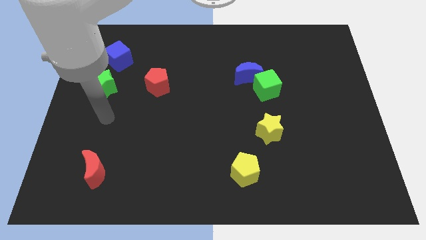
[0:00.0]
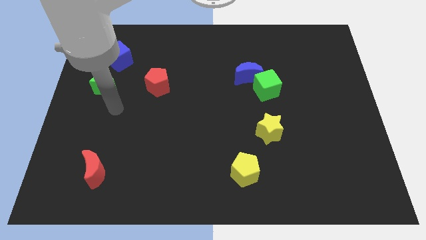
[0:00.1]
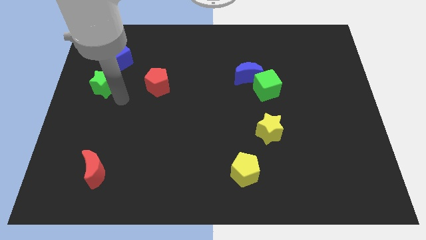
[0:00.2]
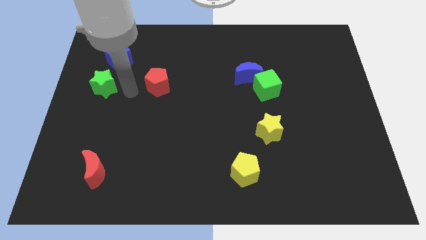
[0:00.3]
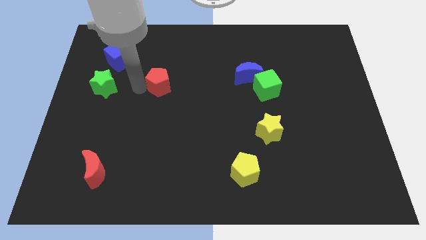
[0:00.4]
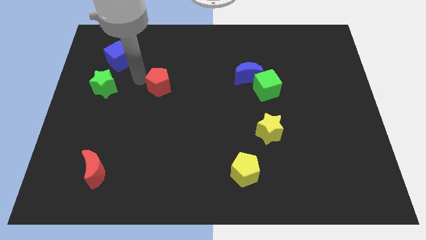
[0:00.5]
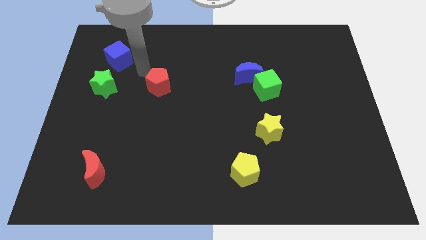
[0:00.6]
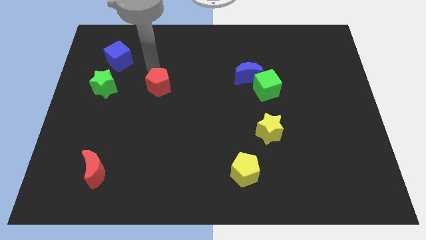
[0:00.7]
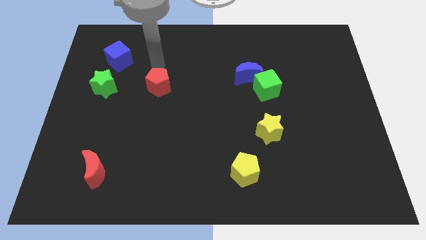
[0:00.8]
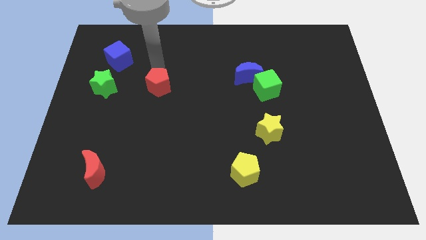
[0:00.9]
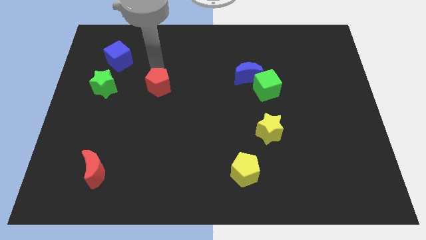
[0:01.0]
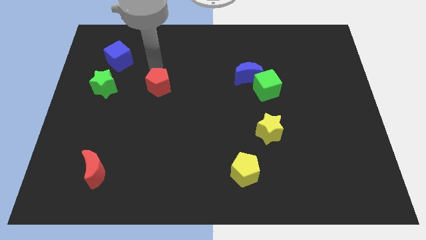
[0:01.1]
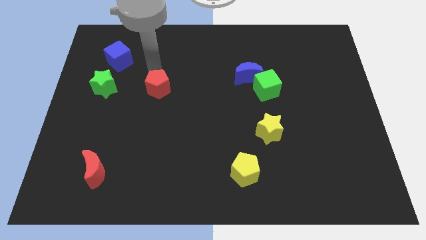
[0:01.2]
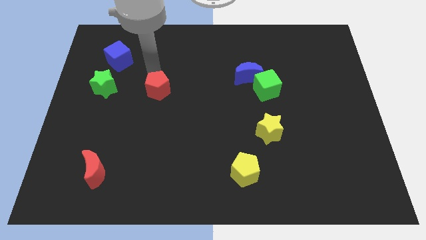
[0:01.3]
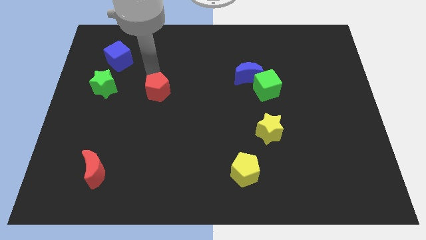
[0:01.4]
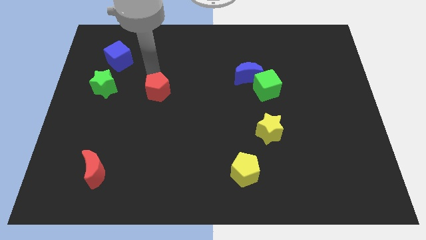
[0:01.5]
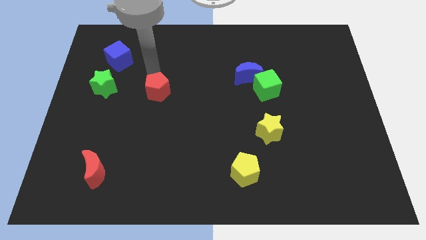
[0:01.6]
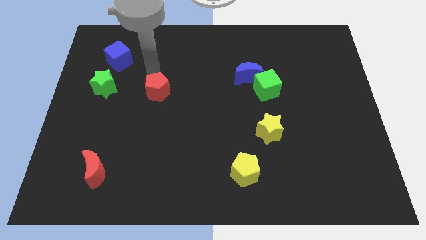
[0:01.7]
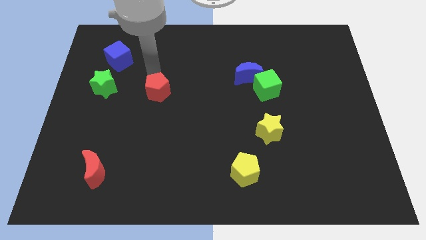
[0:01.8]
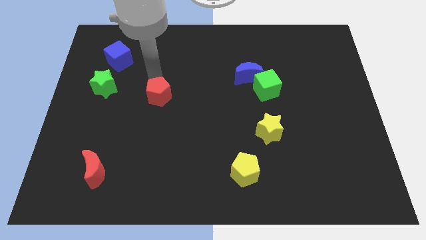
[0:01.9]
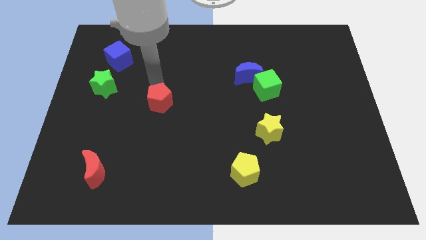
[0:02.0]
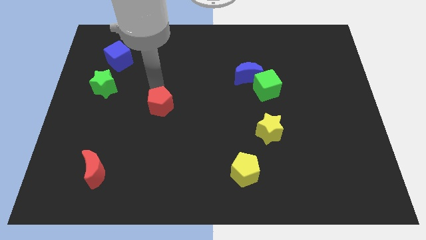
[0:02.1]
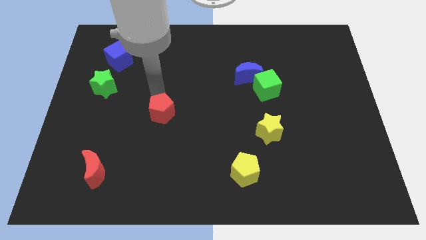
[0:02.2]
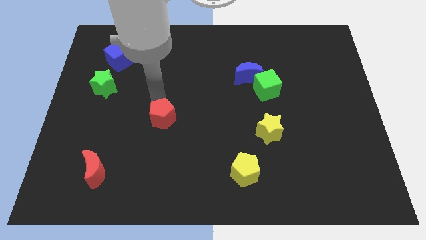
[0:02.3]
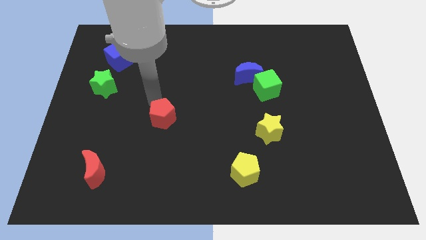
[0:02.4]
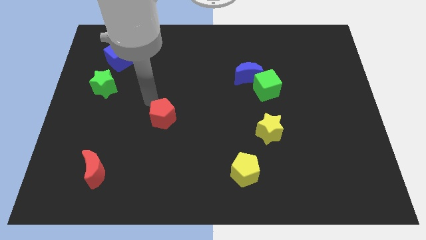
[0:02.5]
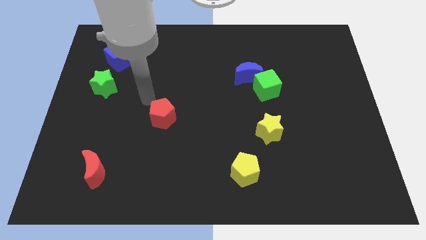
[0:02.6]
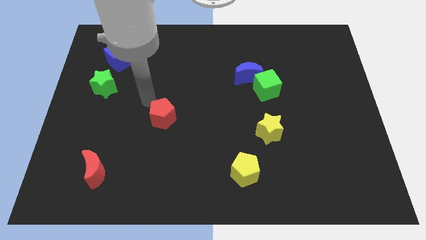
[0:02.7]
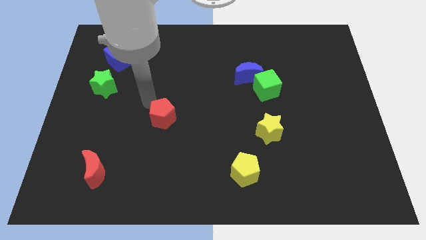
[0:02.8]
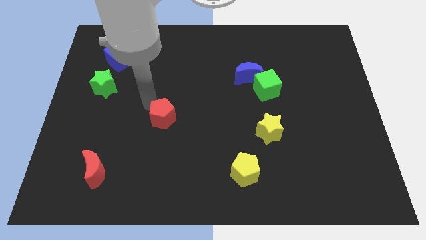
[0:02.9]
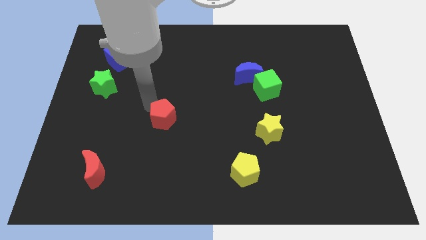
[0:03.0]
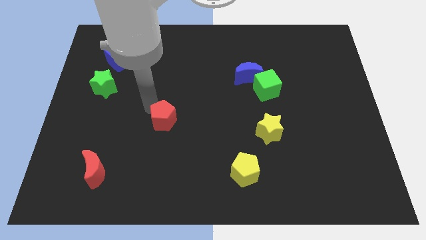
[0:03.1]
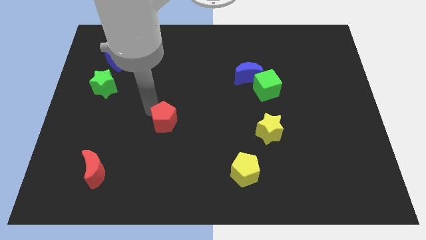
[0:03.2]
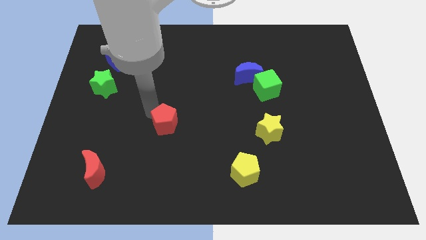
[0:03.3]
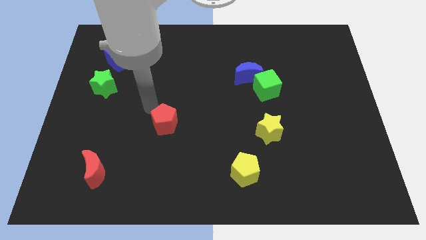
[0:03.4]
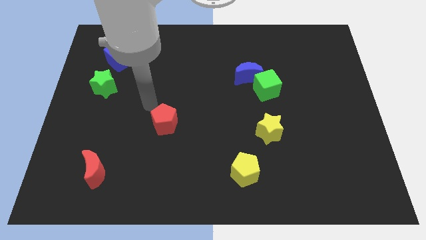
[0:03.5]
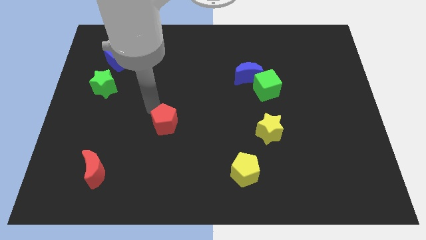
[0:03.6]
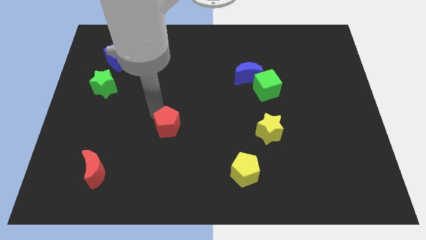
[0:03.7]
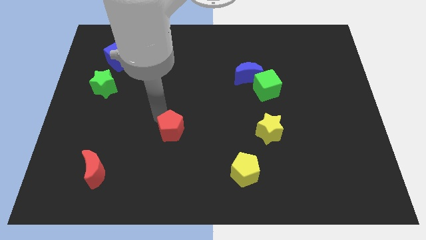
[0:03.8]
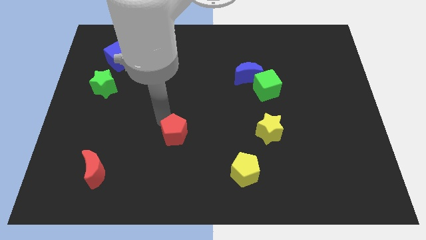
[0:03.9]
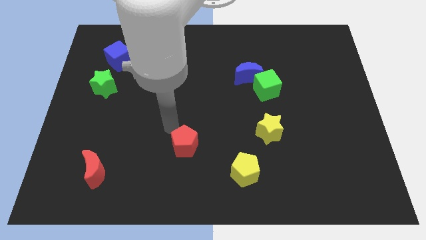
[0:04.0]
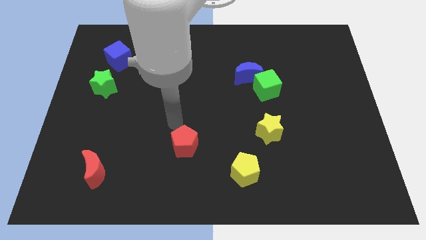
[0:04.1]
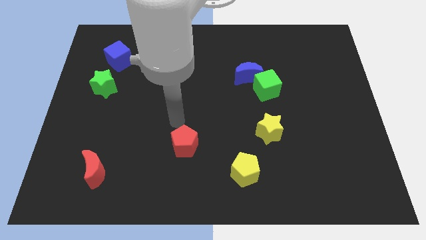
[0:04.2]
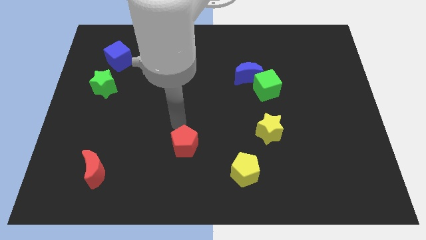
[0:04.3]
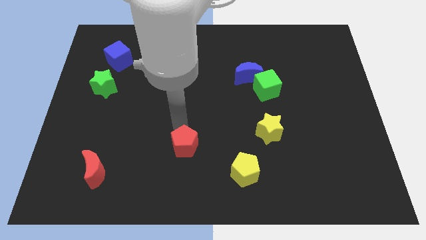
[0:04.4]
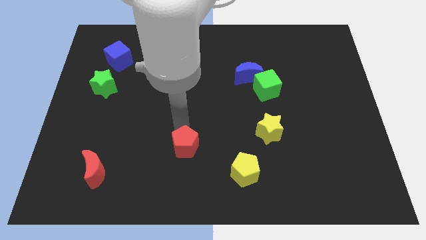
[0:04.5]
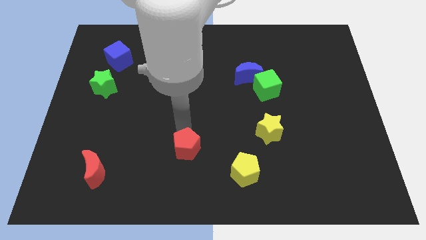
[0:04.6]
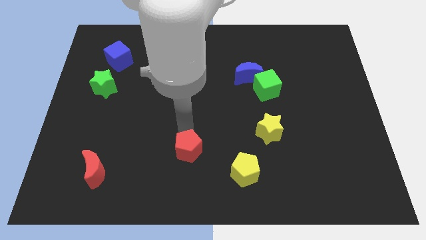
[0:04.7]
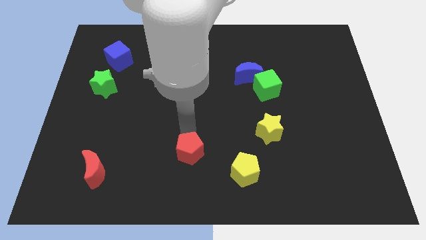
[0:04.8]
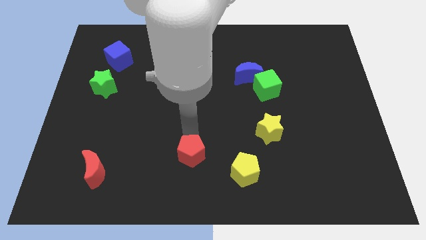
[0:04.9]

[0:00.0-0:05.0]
put the red pentagon to the left of the yellow pentagon

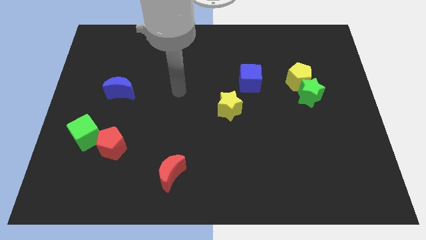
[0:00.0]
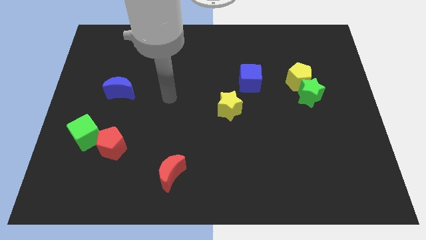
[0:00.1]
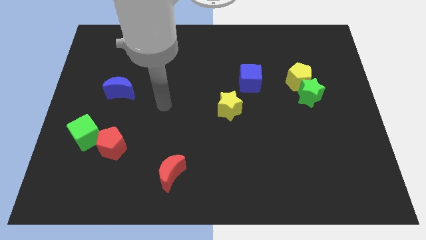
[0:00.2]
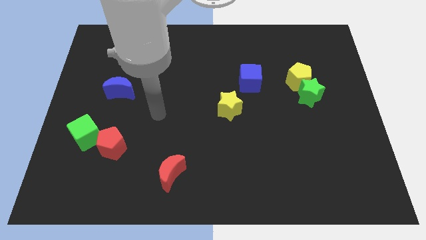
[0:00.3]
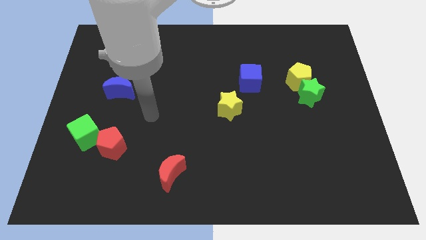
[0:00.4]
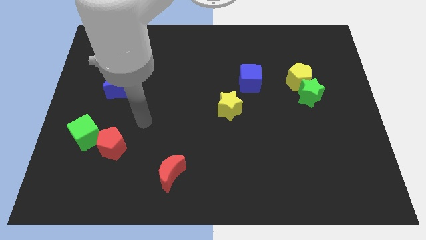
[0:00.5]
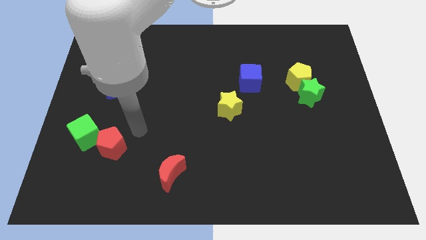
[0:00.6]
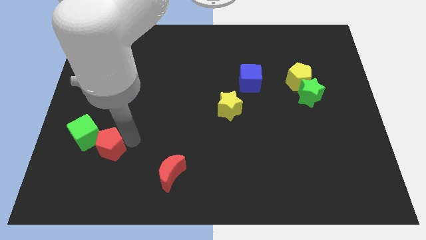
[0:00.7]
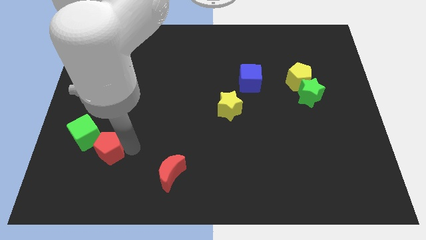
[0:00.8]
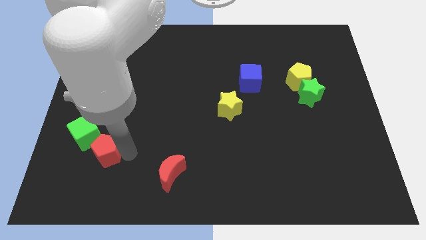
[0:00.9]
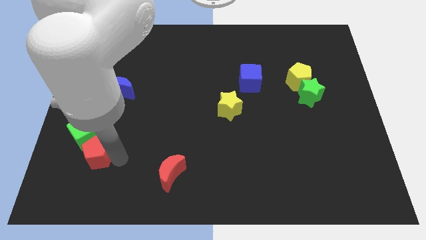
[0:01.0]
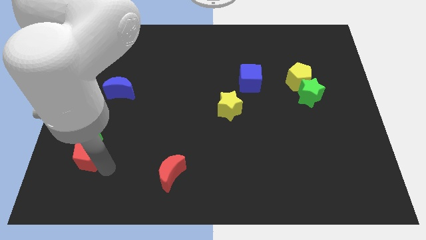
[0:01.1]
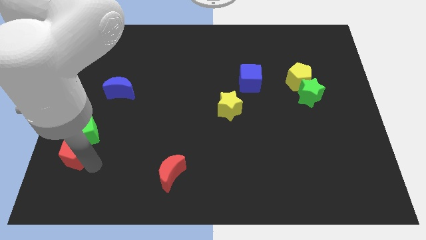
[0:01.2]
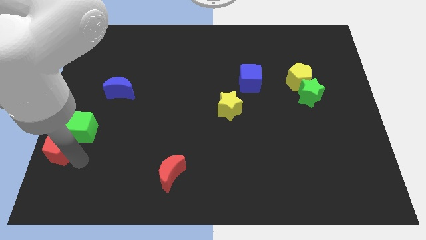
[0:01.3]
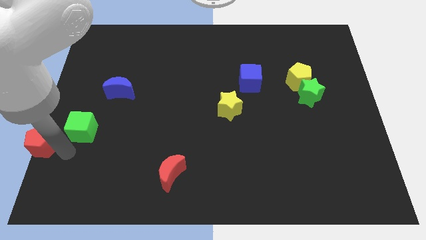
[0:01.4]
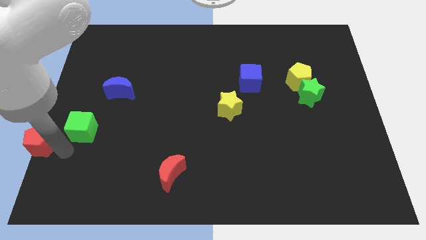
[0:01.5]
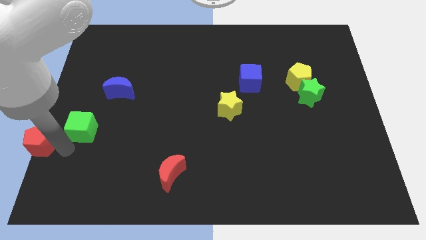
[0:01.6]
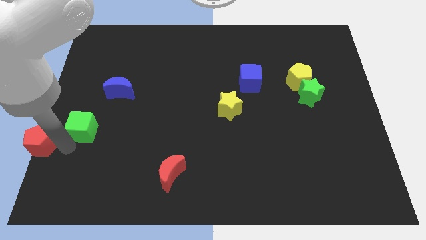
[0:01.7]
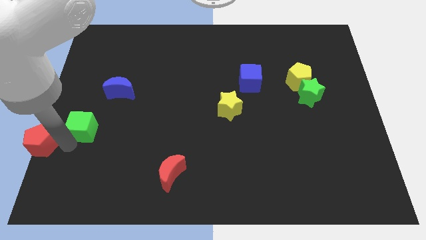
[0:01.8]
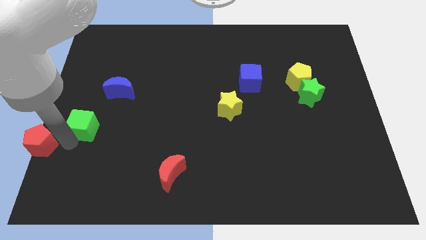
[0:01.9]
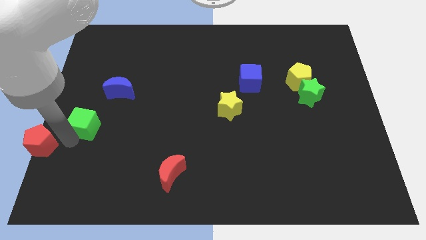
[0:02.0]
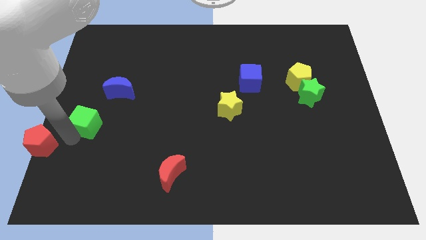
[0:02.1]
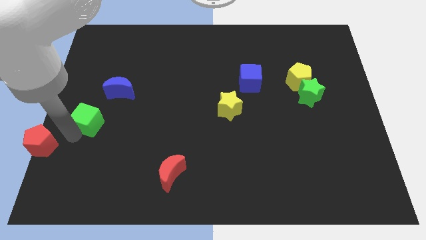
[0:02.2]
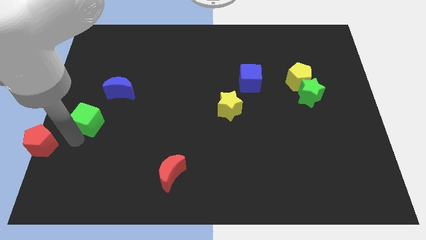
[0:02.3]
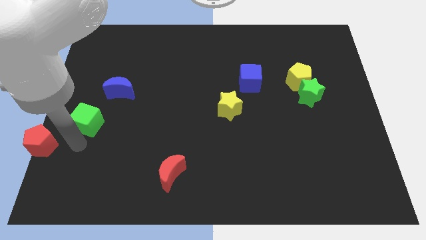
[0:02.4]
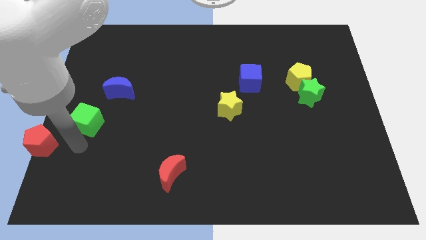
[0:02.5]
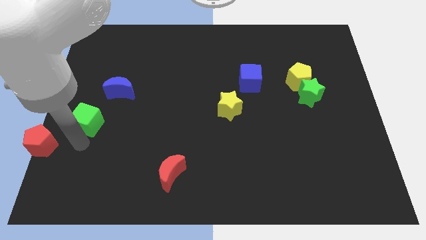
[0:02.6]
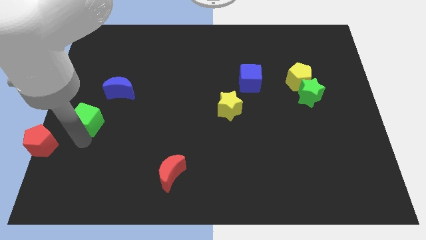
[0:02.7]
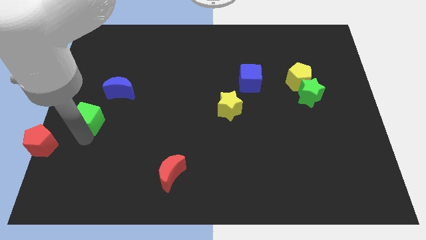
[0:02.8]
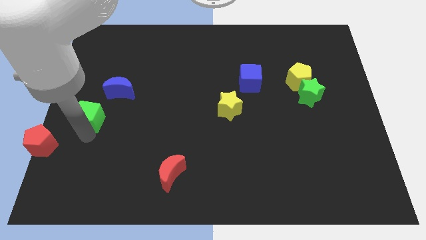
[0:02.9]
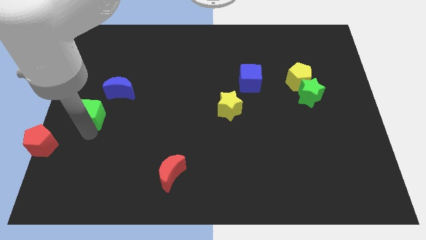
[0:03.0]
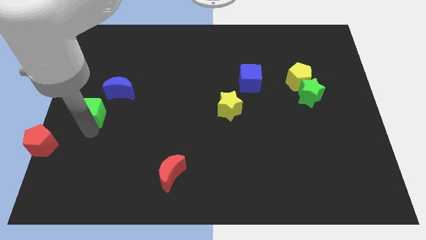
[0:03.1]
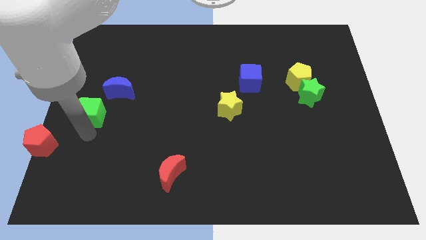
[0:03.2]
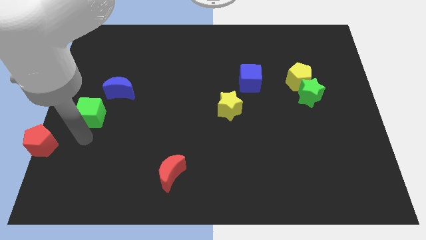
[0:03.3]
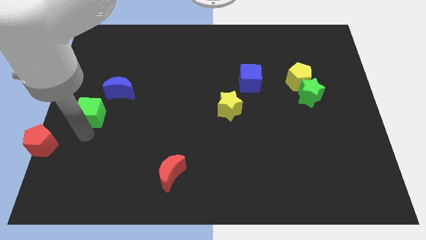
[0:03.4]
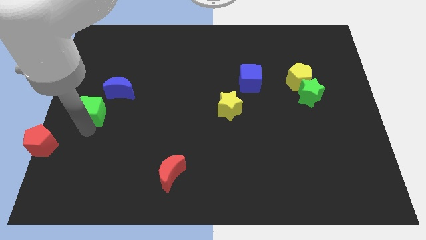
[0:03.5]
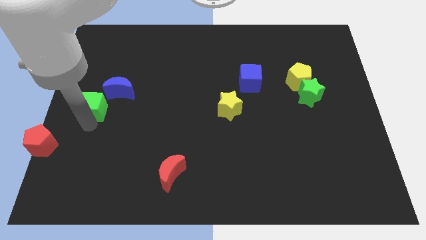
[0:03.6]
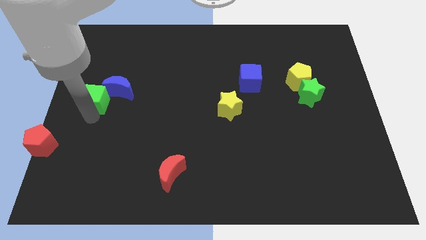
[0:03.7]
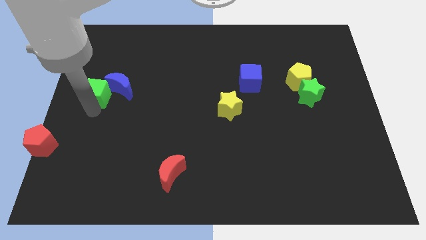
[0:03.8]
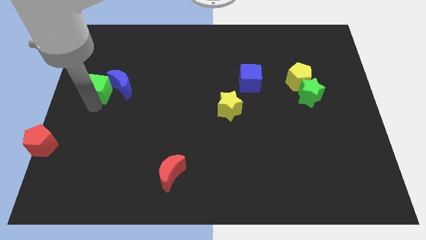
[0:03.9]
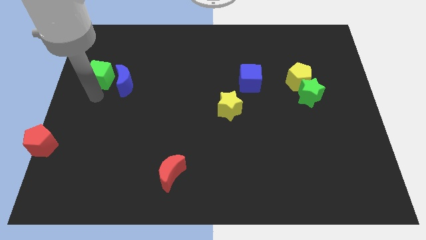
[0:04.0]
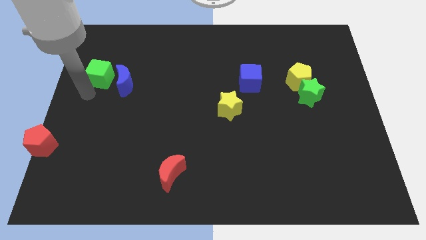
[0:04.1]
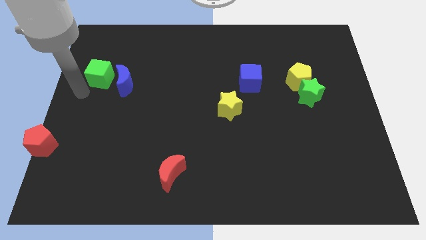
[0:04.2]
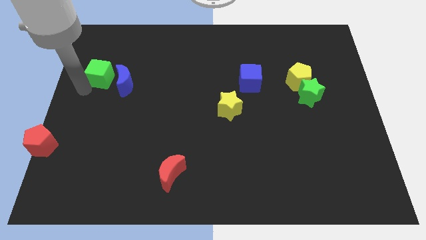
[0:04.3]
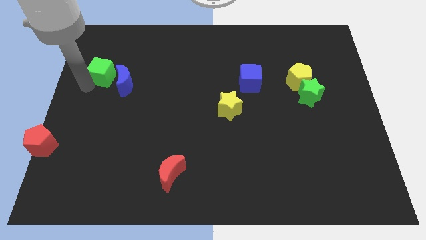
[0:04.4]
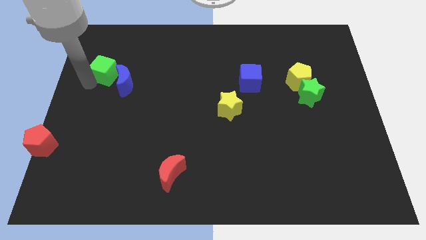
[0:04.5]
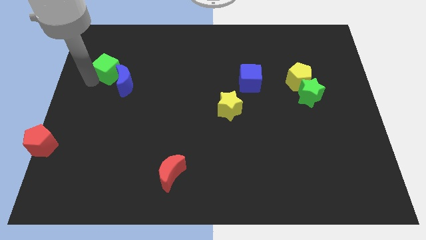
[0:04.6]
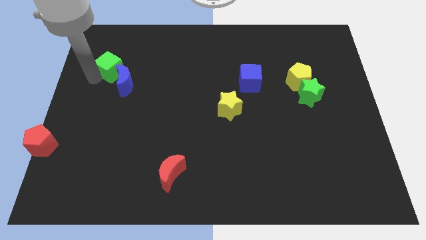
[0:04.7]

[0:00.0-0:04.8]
move the green cube above the blue moon
